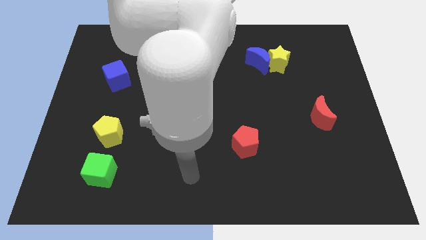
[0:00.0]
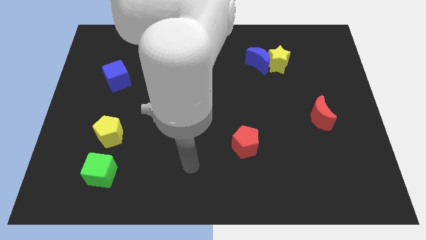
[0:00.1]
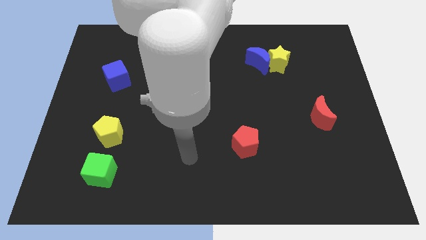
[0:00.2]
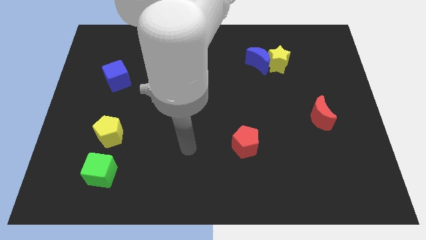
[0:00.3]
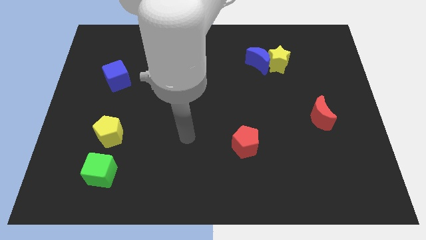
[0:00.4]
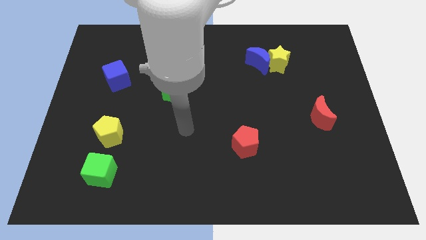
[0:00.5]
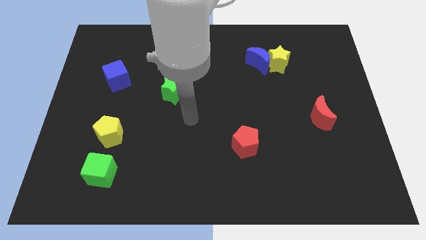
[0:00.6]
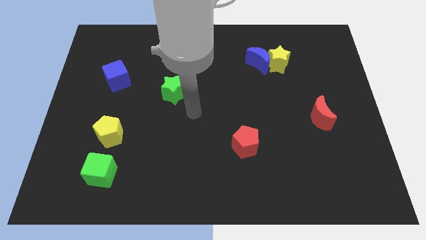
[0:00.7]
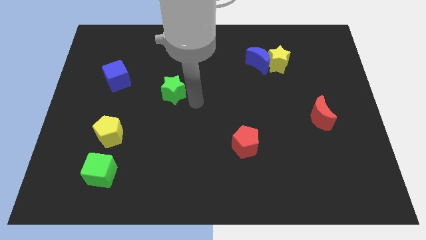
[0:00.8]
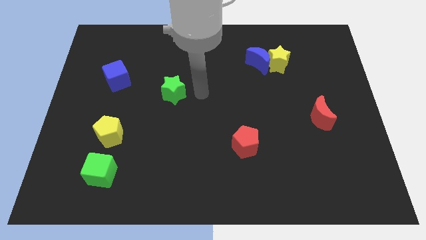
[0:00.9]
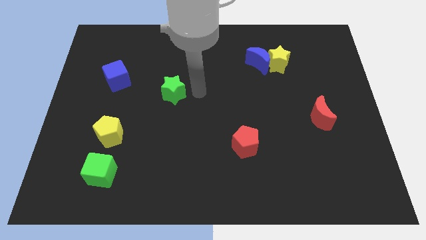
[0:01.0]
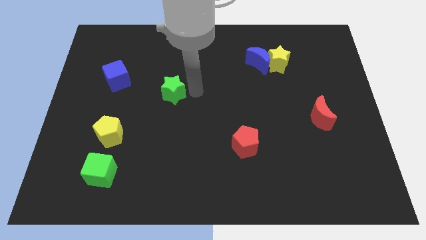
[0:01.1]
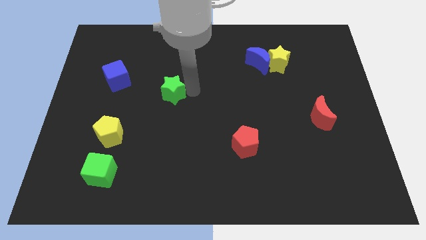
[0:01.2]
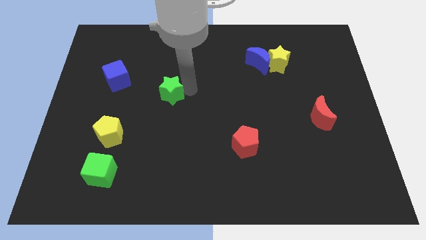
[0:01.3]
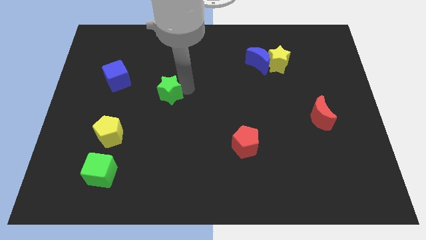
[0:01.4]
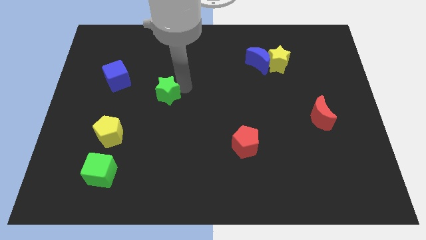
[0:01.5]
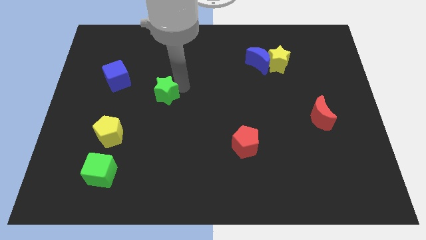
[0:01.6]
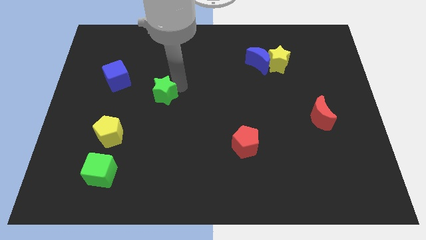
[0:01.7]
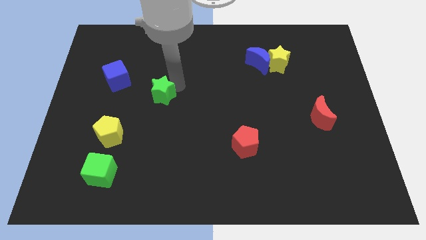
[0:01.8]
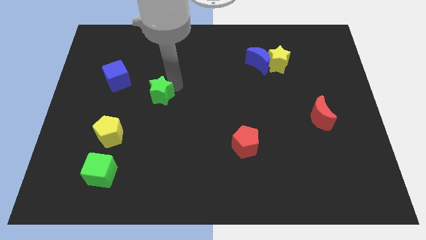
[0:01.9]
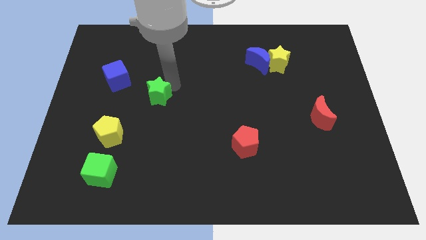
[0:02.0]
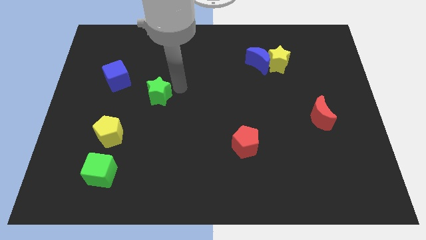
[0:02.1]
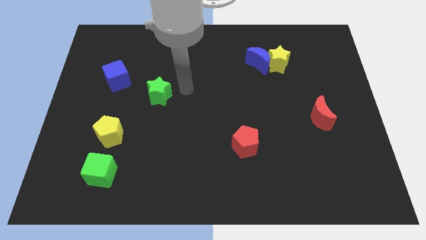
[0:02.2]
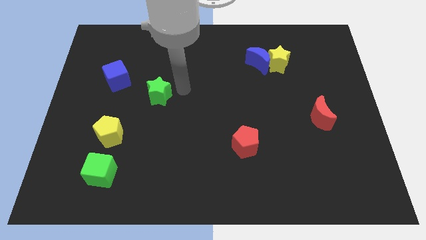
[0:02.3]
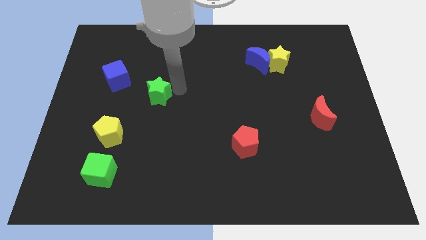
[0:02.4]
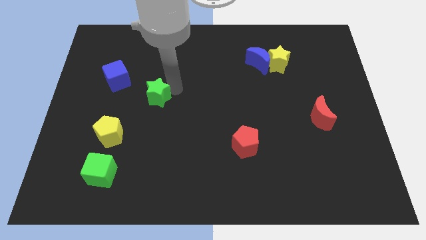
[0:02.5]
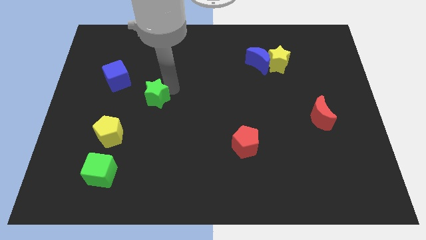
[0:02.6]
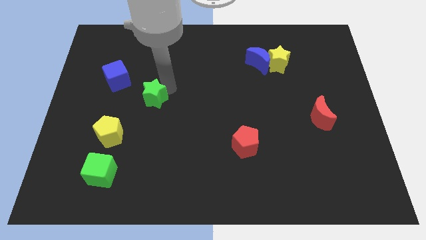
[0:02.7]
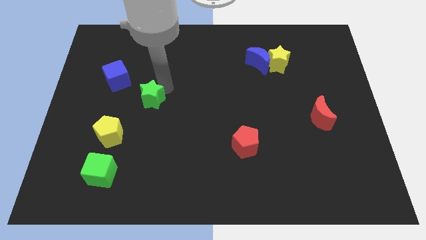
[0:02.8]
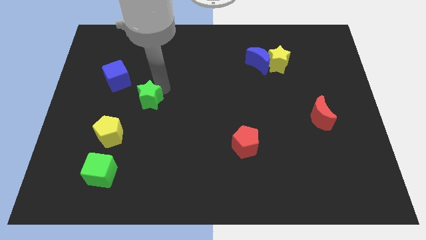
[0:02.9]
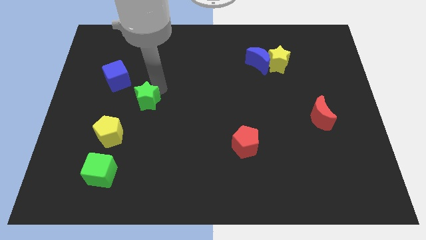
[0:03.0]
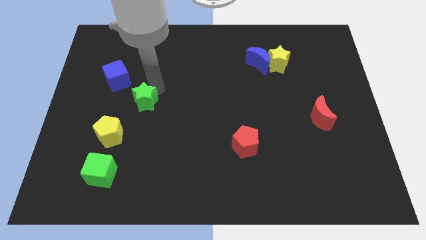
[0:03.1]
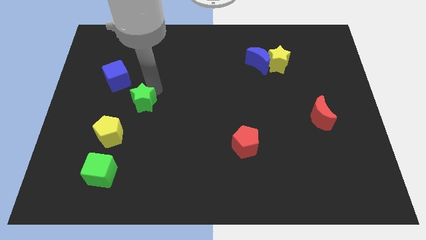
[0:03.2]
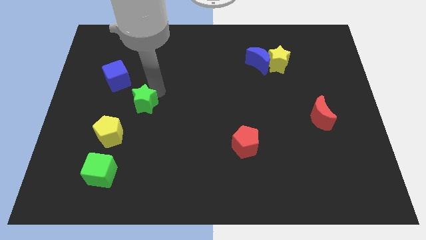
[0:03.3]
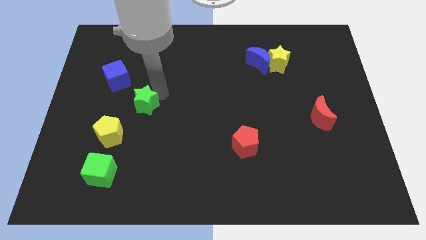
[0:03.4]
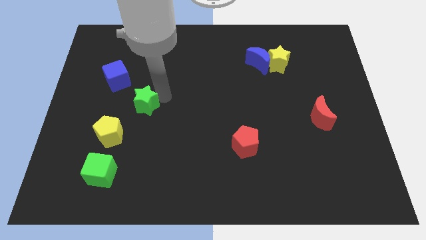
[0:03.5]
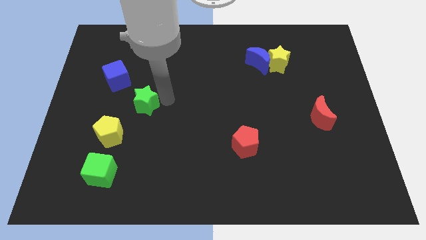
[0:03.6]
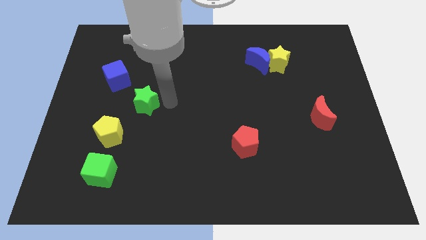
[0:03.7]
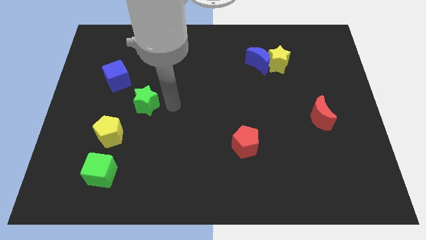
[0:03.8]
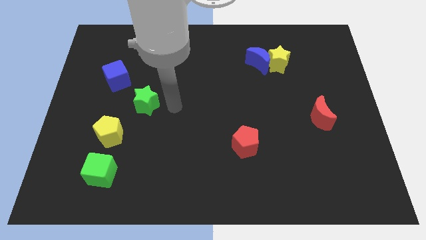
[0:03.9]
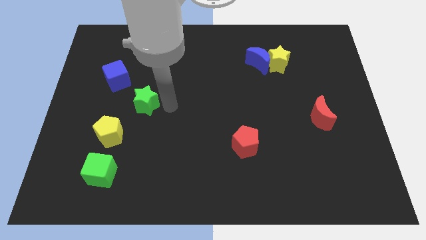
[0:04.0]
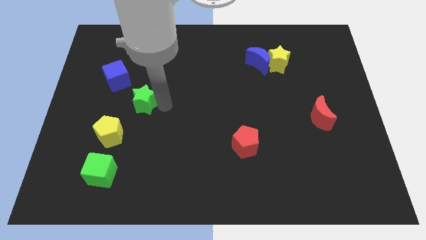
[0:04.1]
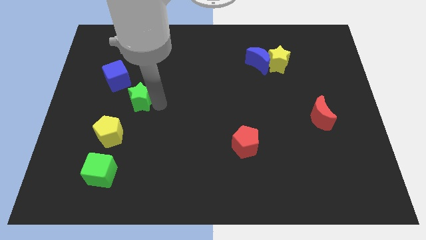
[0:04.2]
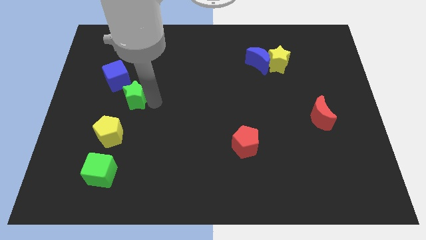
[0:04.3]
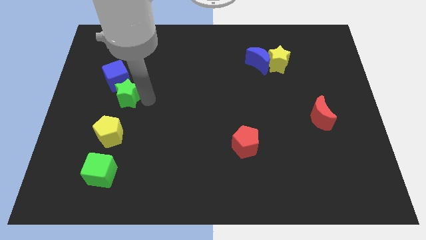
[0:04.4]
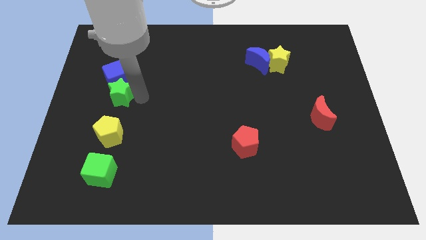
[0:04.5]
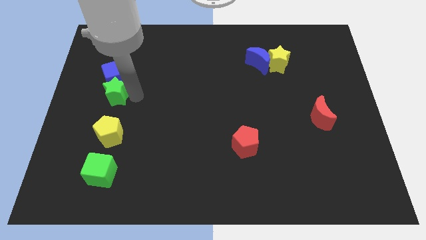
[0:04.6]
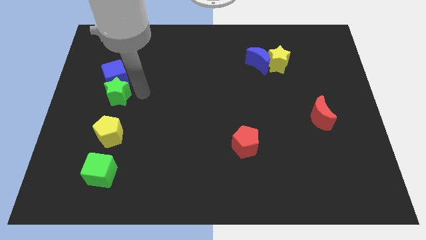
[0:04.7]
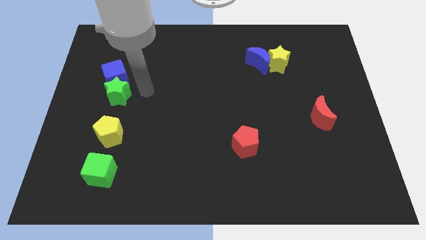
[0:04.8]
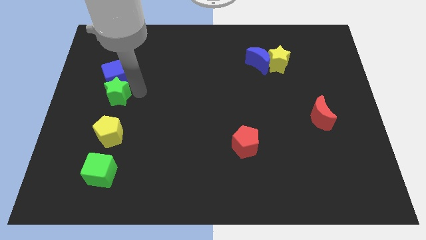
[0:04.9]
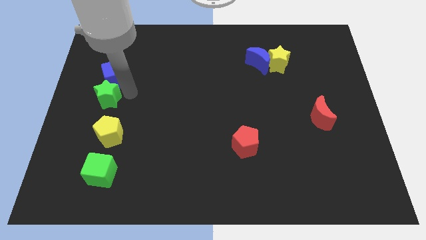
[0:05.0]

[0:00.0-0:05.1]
push the green star to the center left
